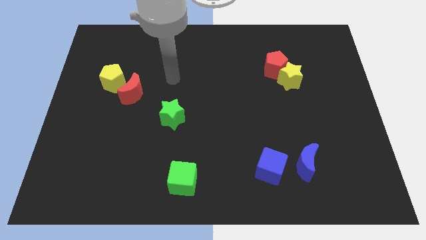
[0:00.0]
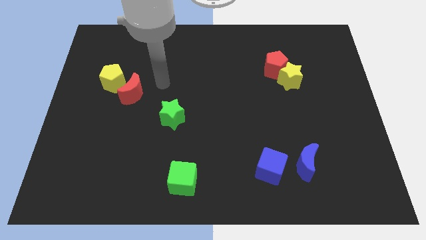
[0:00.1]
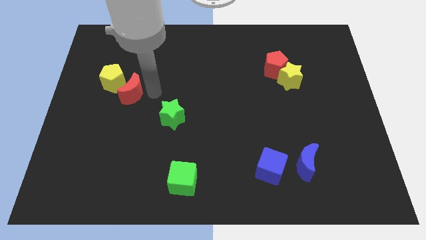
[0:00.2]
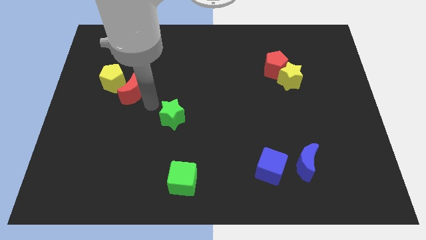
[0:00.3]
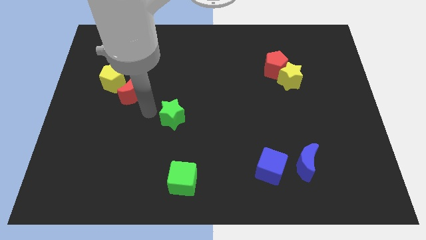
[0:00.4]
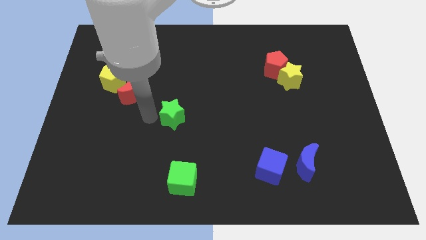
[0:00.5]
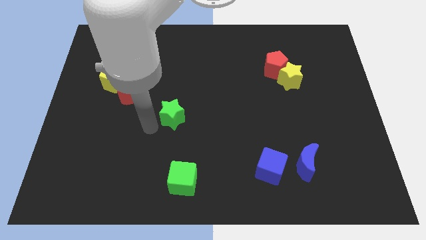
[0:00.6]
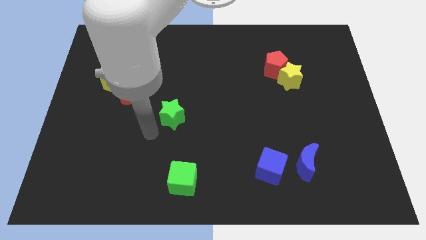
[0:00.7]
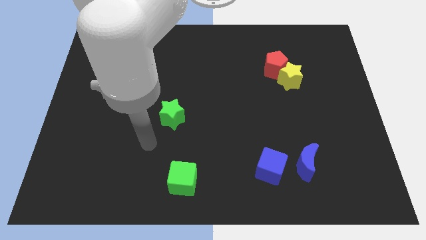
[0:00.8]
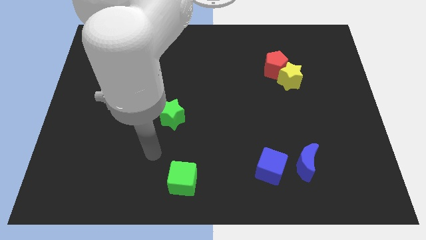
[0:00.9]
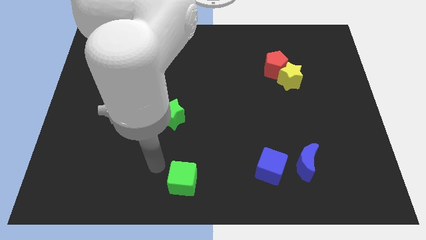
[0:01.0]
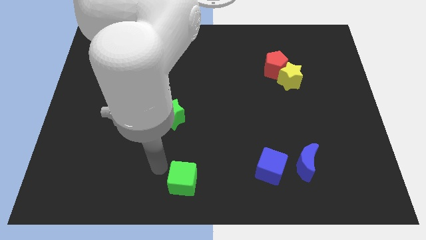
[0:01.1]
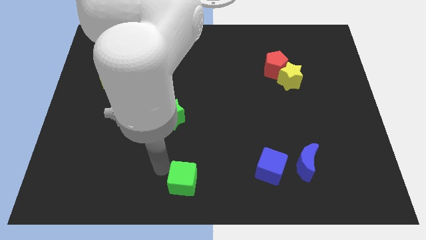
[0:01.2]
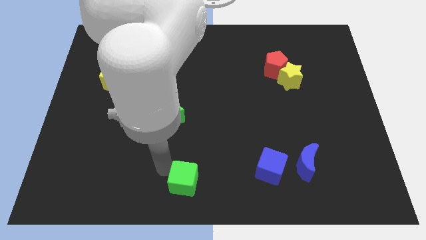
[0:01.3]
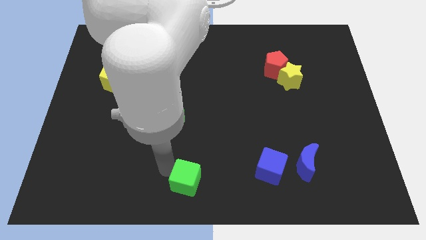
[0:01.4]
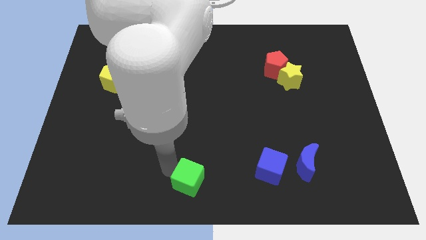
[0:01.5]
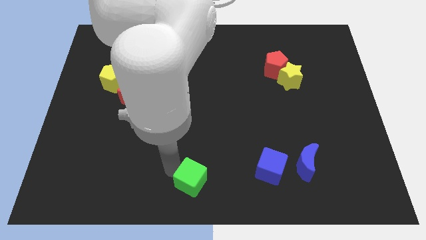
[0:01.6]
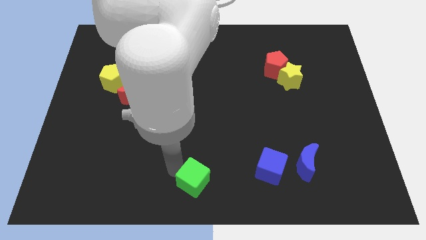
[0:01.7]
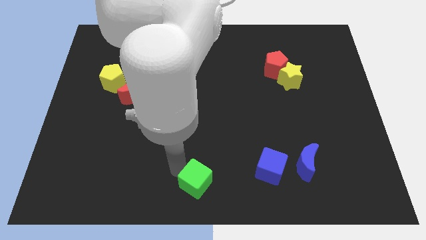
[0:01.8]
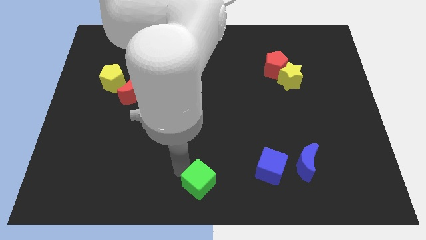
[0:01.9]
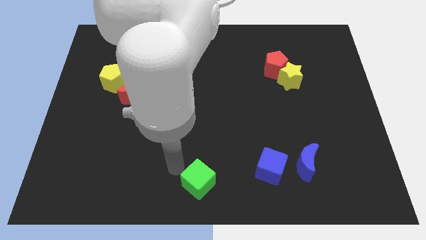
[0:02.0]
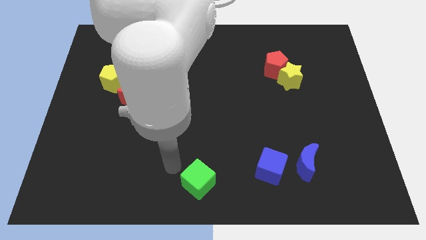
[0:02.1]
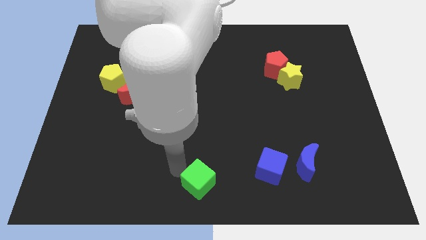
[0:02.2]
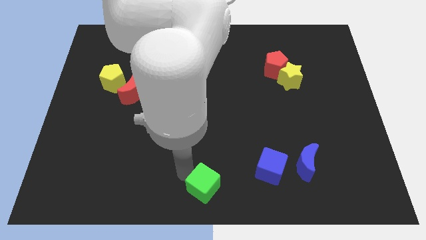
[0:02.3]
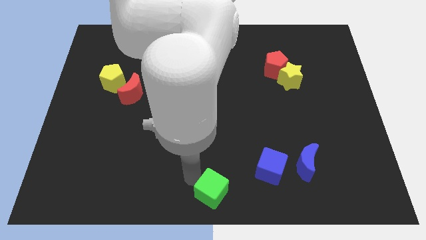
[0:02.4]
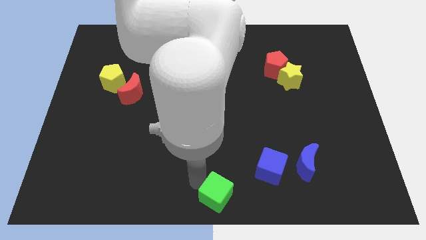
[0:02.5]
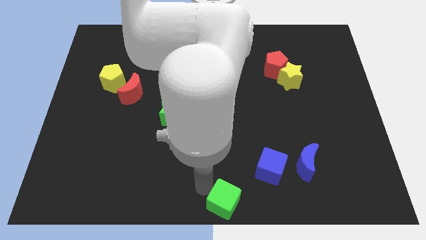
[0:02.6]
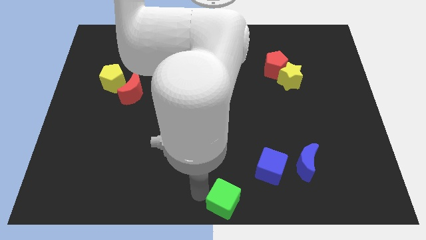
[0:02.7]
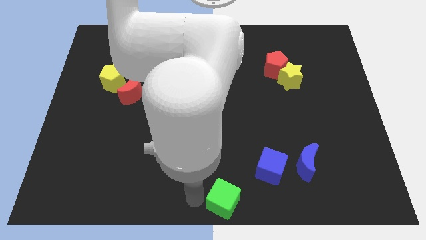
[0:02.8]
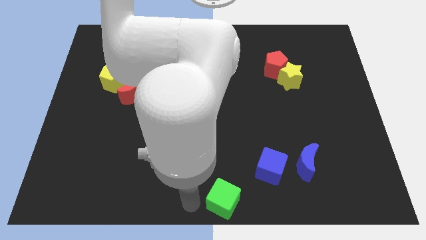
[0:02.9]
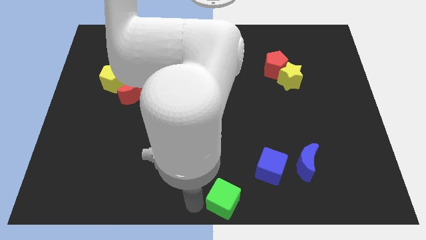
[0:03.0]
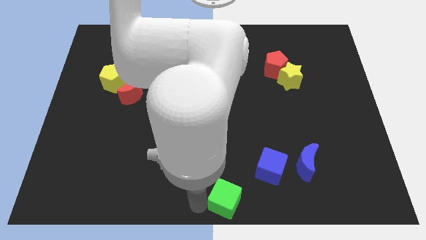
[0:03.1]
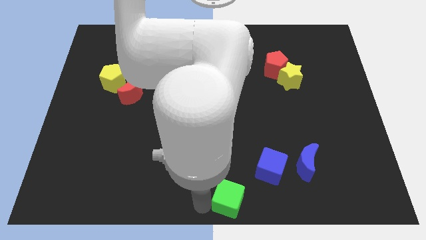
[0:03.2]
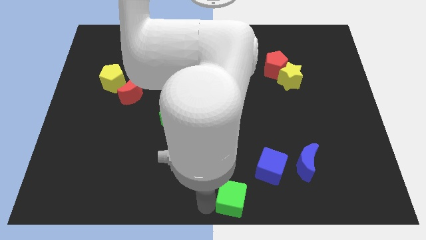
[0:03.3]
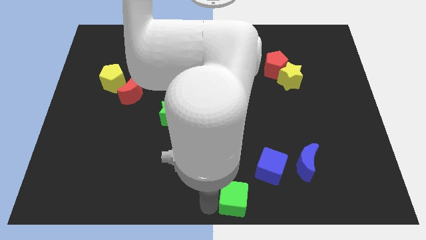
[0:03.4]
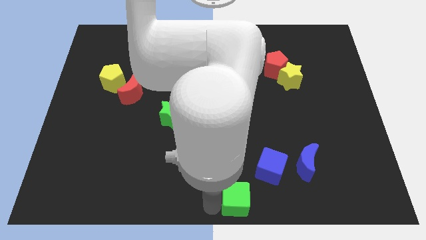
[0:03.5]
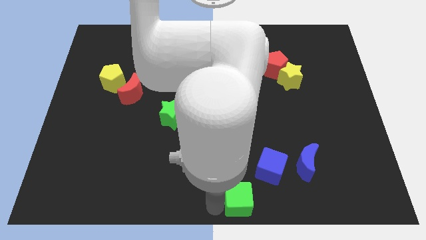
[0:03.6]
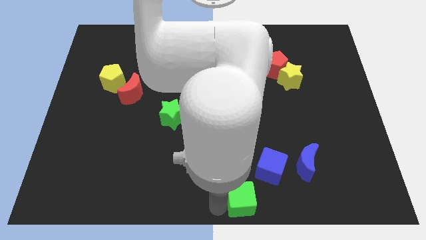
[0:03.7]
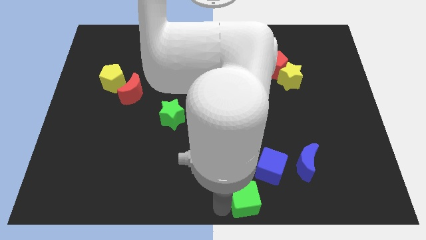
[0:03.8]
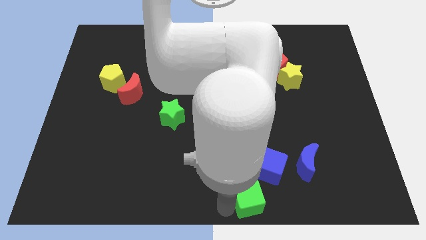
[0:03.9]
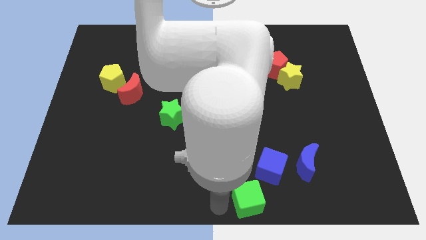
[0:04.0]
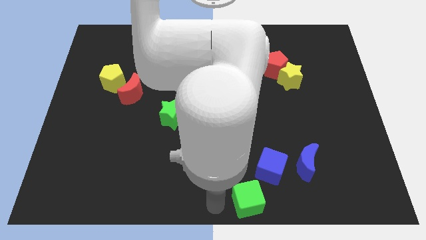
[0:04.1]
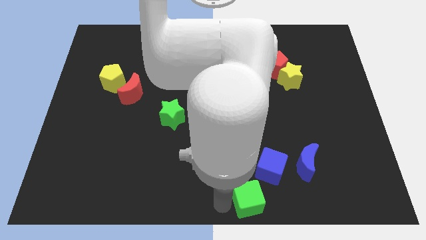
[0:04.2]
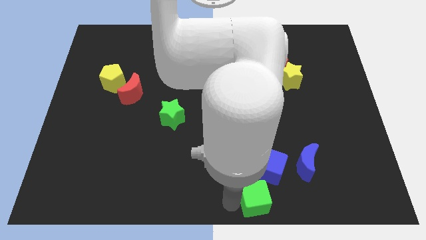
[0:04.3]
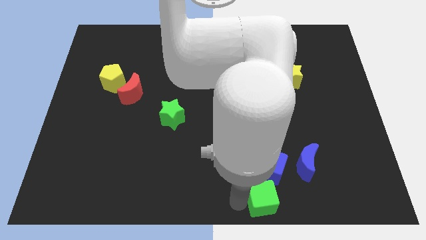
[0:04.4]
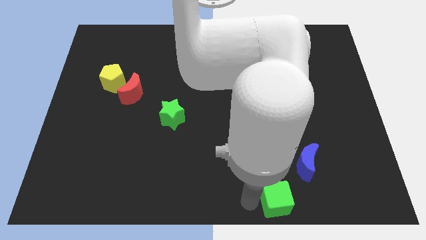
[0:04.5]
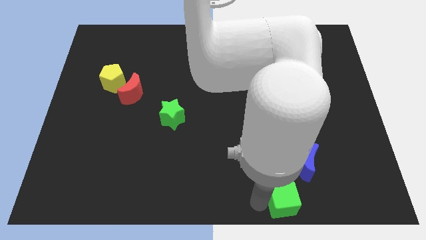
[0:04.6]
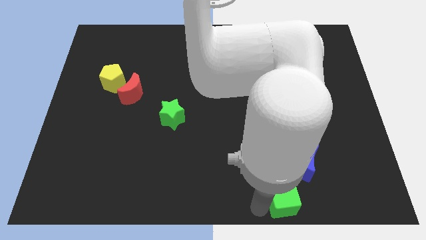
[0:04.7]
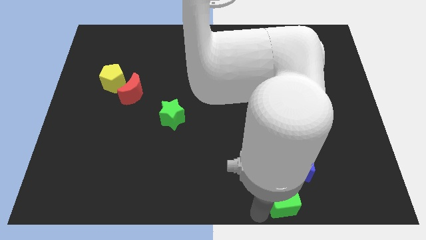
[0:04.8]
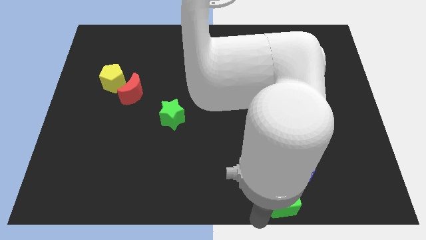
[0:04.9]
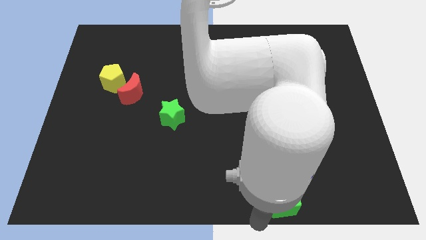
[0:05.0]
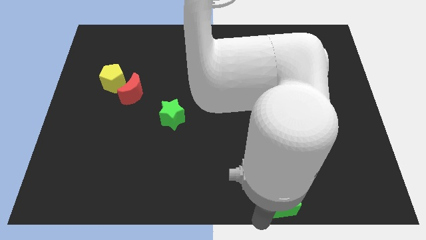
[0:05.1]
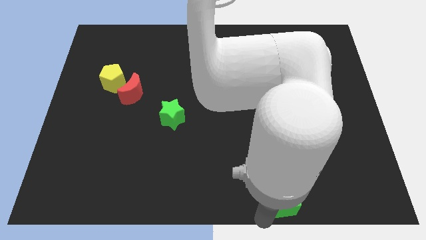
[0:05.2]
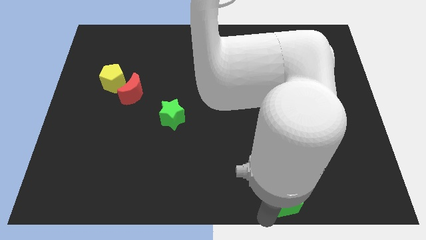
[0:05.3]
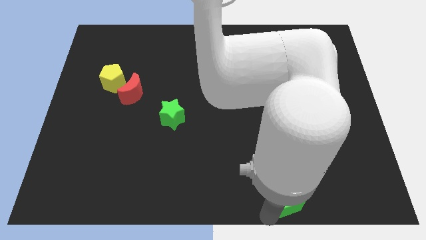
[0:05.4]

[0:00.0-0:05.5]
move the green cube right

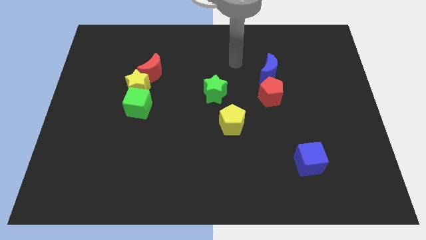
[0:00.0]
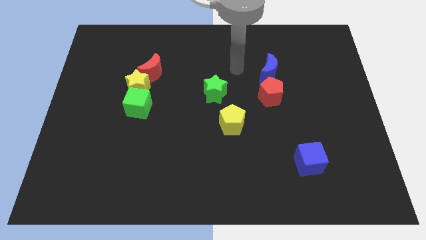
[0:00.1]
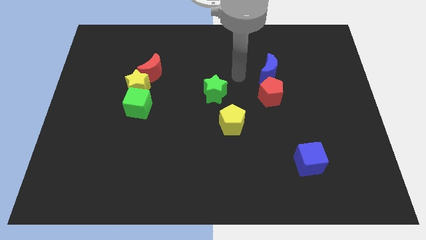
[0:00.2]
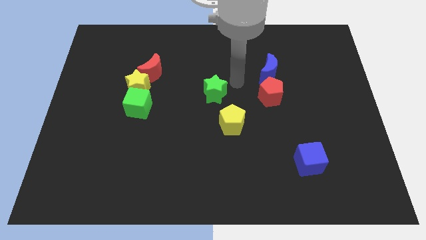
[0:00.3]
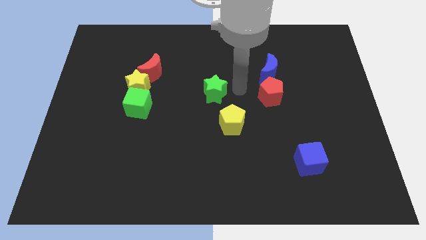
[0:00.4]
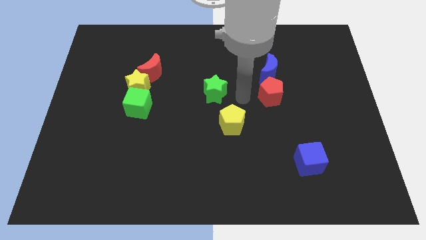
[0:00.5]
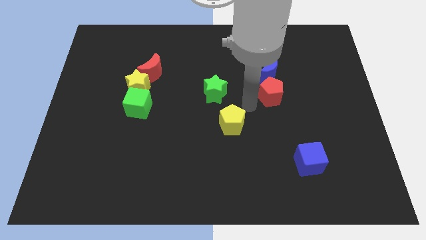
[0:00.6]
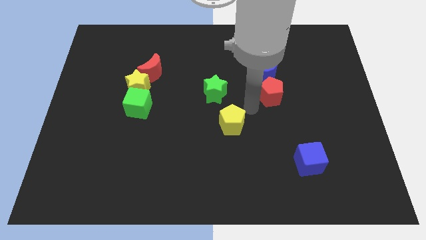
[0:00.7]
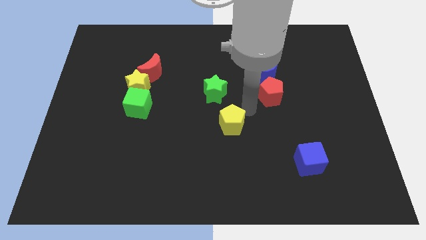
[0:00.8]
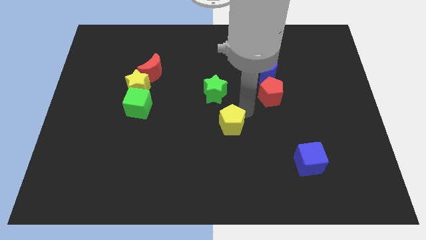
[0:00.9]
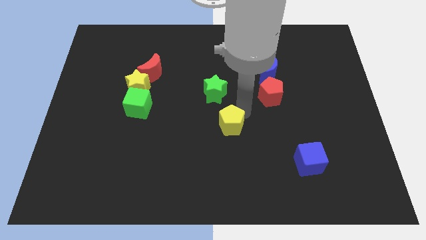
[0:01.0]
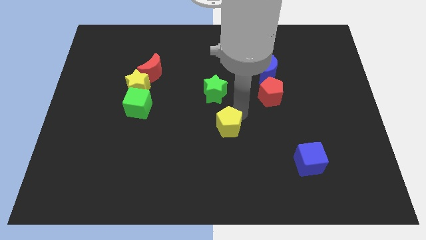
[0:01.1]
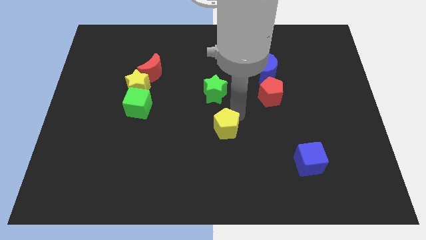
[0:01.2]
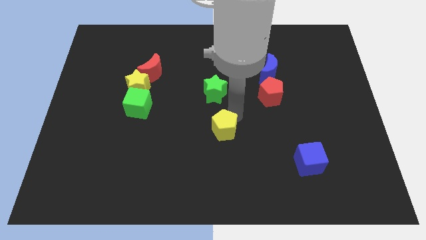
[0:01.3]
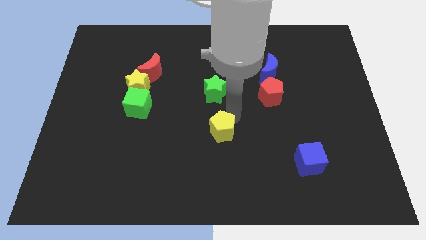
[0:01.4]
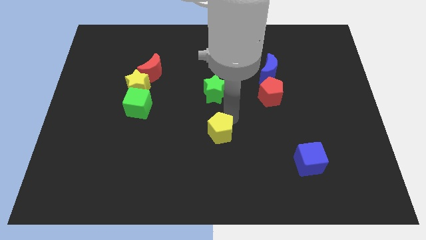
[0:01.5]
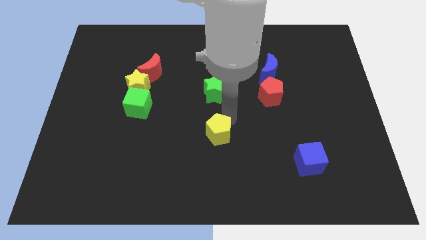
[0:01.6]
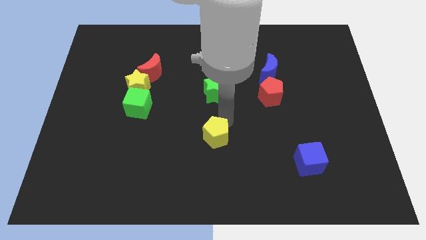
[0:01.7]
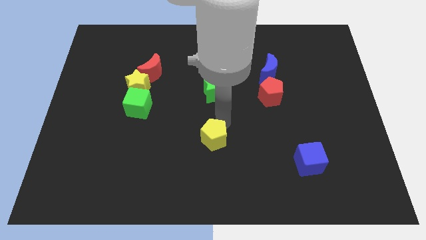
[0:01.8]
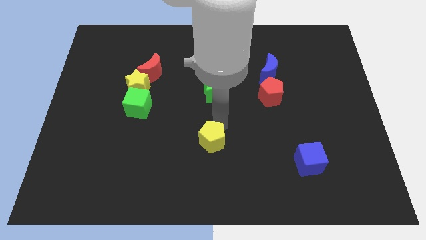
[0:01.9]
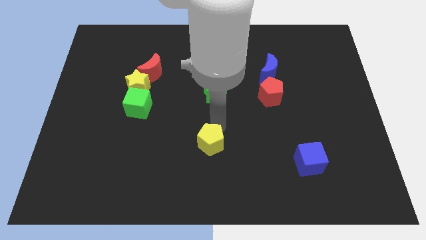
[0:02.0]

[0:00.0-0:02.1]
slide the yellow pentagon down and then to the left slightly

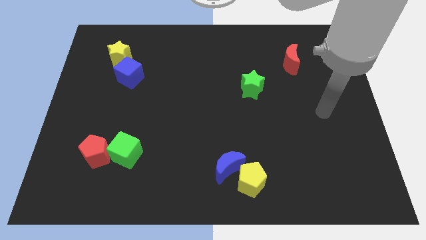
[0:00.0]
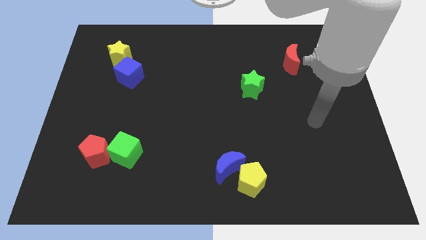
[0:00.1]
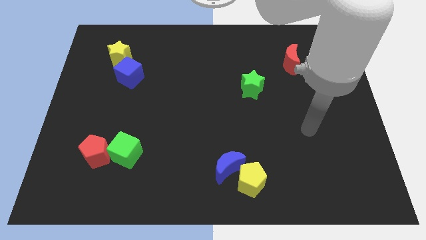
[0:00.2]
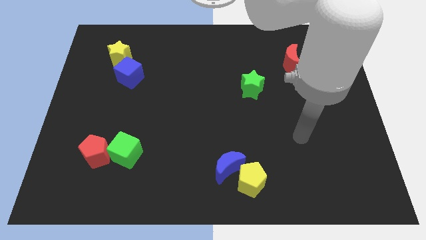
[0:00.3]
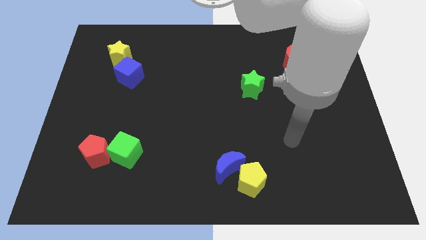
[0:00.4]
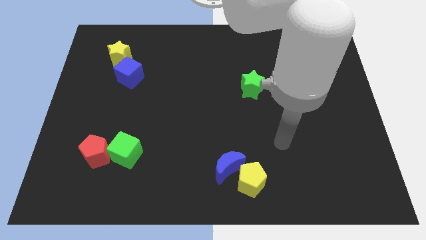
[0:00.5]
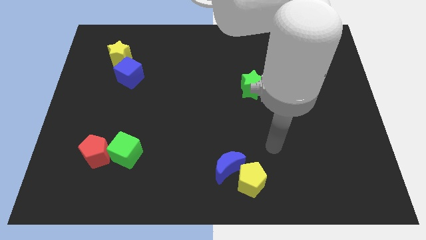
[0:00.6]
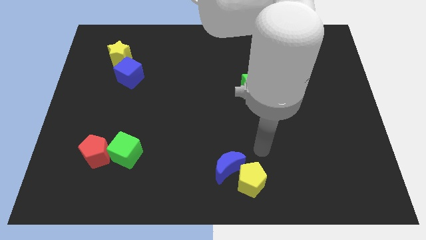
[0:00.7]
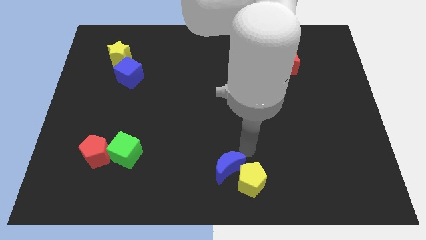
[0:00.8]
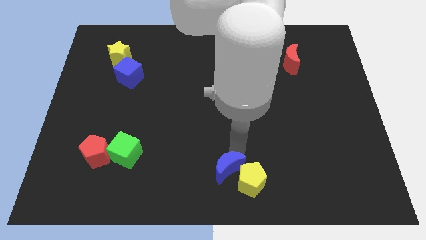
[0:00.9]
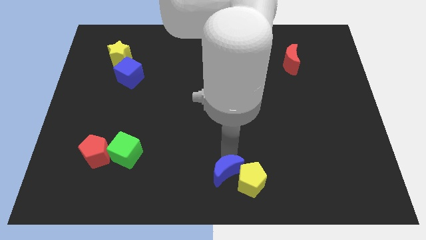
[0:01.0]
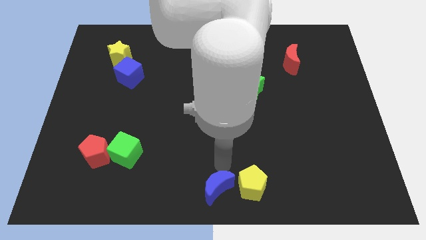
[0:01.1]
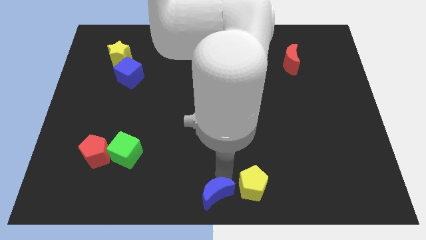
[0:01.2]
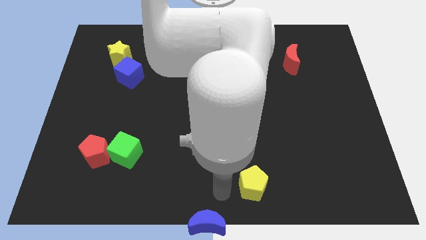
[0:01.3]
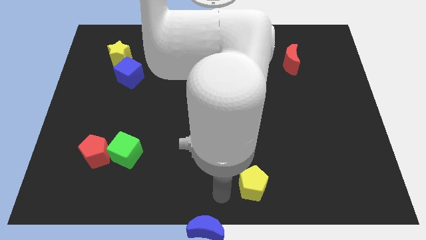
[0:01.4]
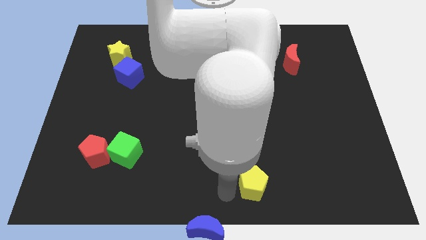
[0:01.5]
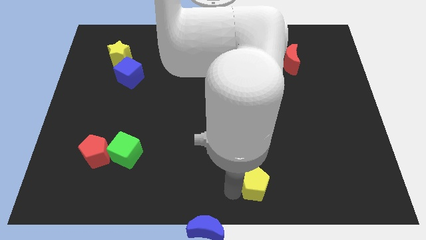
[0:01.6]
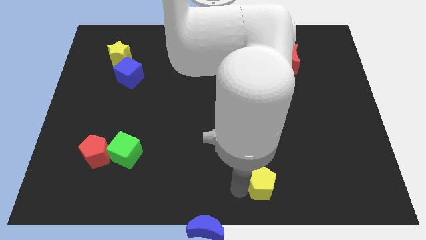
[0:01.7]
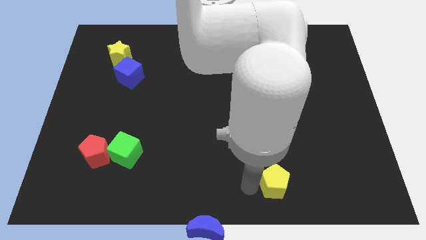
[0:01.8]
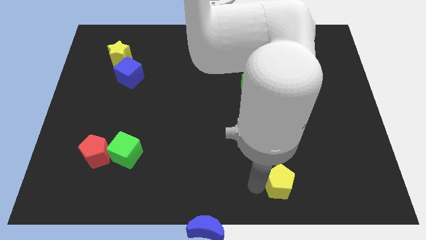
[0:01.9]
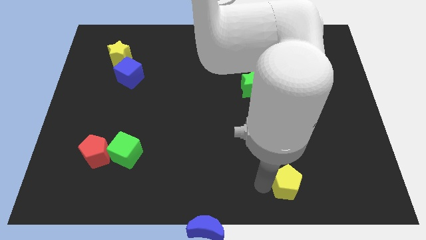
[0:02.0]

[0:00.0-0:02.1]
move the yellow pentagon a bit to the right
